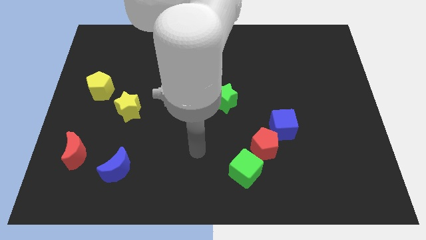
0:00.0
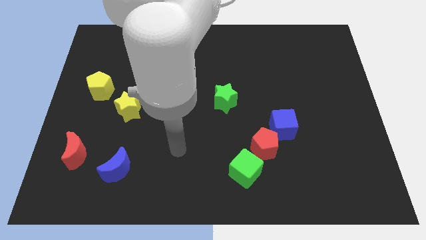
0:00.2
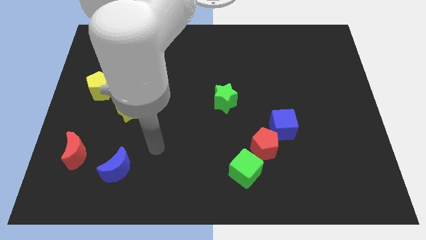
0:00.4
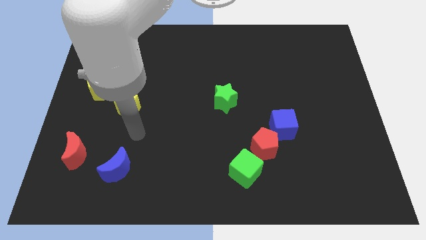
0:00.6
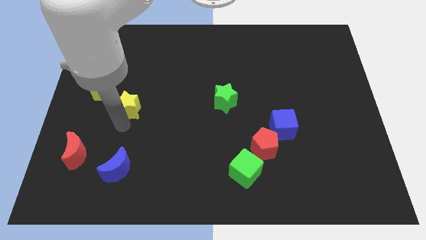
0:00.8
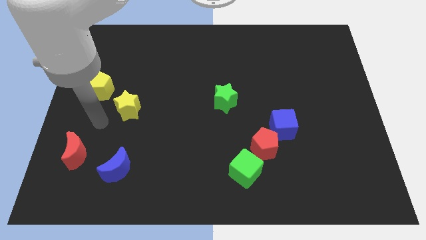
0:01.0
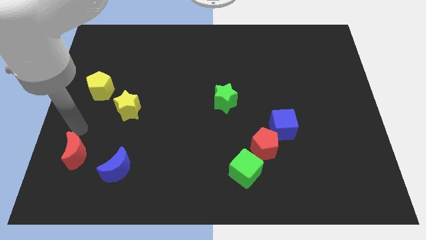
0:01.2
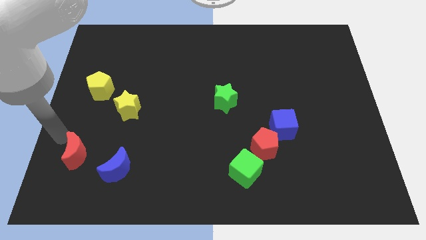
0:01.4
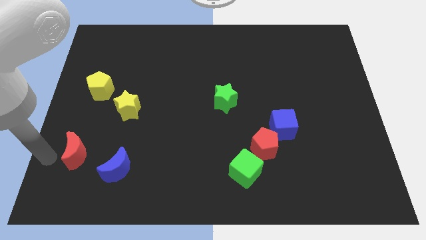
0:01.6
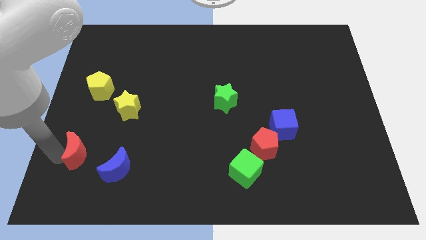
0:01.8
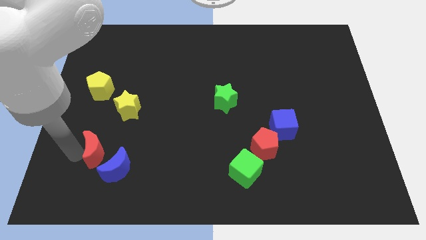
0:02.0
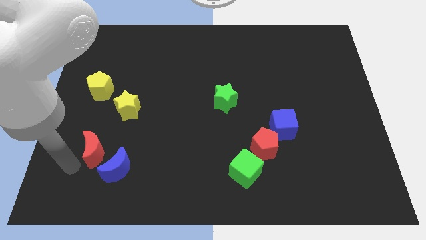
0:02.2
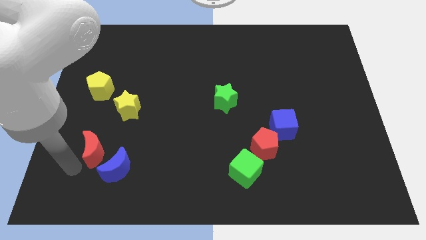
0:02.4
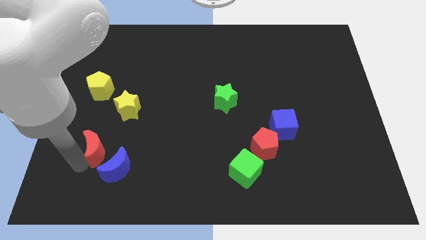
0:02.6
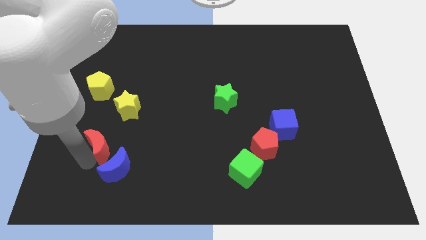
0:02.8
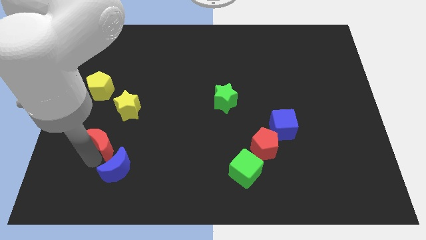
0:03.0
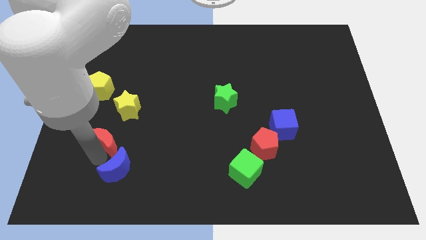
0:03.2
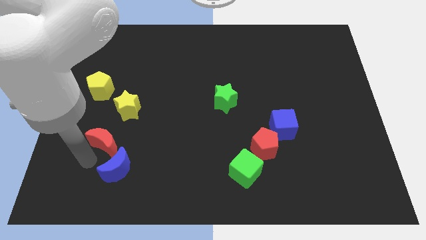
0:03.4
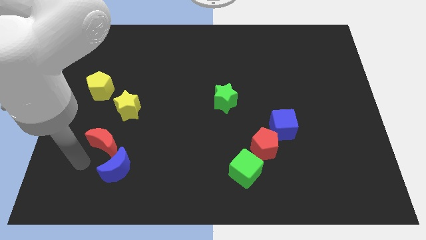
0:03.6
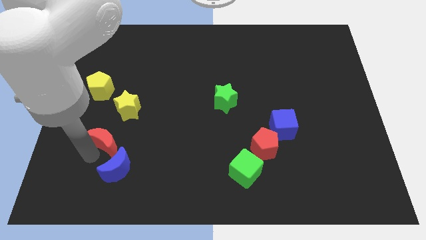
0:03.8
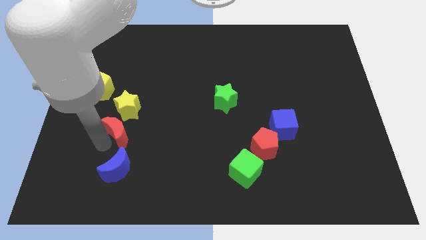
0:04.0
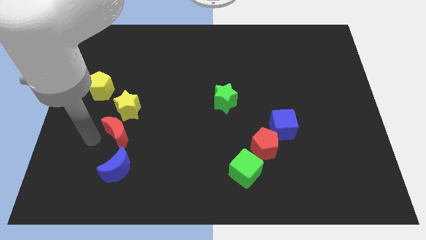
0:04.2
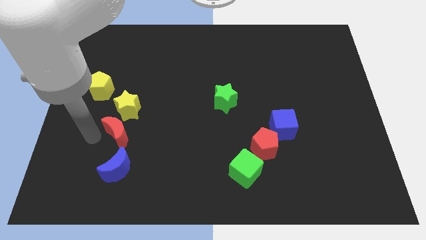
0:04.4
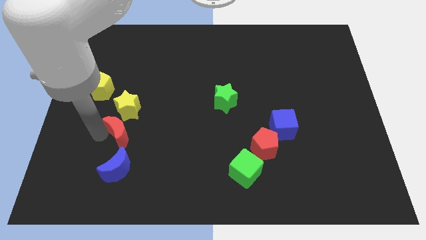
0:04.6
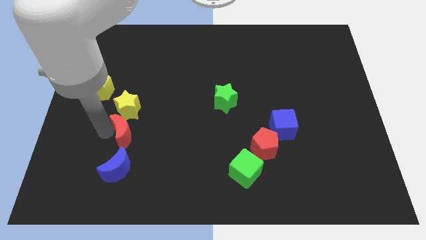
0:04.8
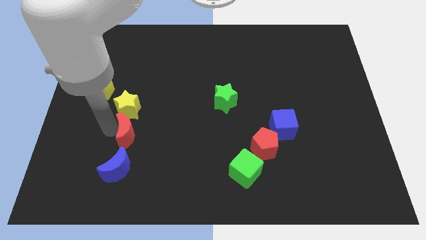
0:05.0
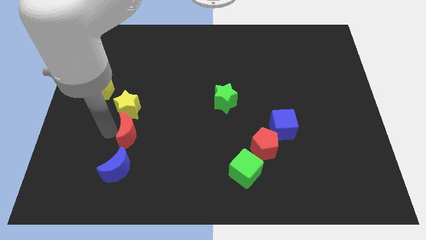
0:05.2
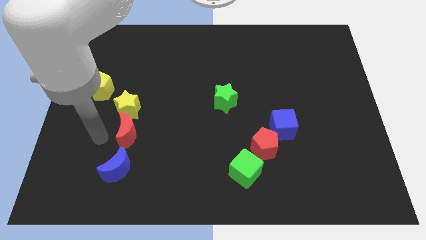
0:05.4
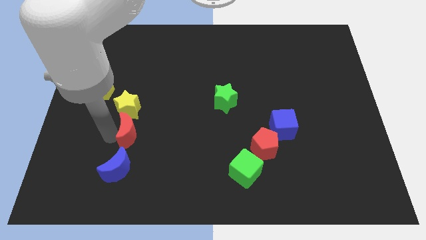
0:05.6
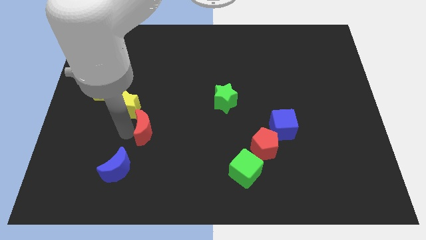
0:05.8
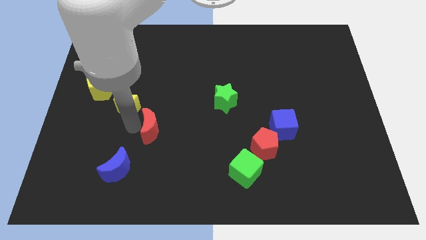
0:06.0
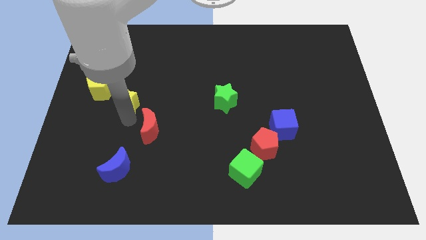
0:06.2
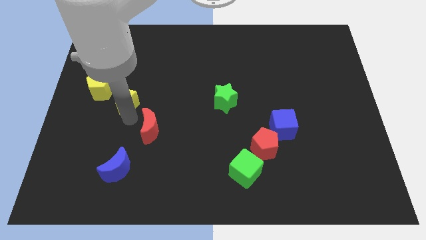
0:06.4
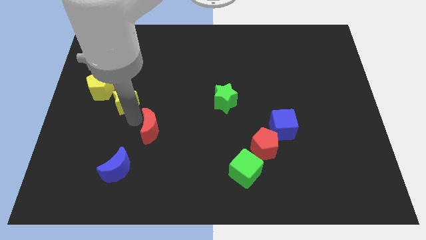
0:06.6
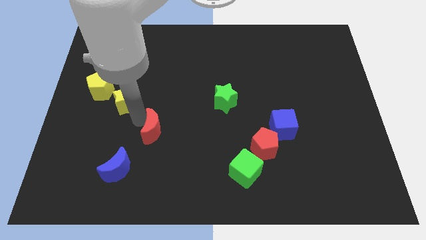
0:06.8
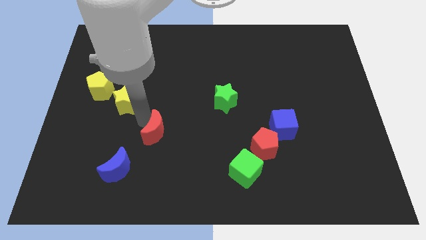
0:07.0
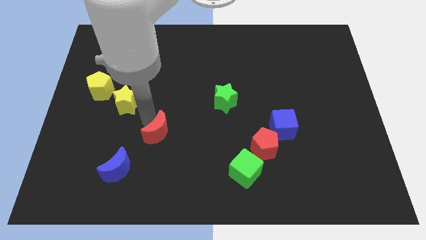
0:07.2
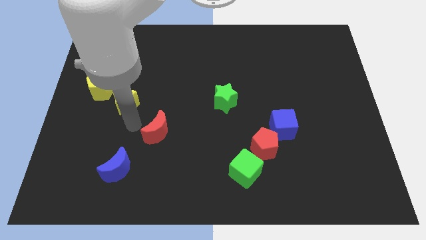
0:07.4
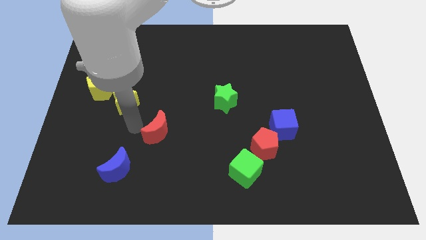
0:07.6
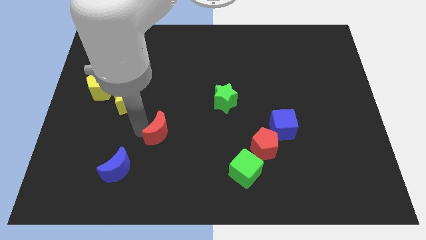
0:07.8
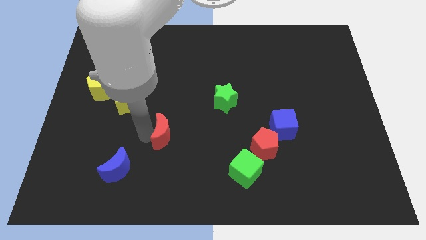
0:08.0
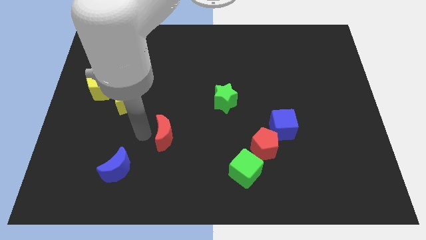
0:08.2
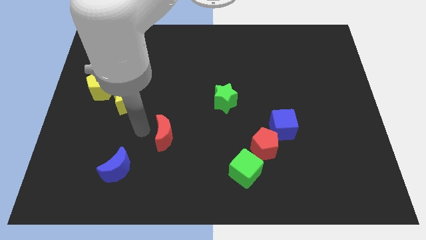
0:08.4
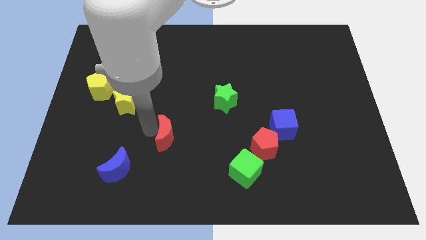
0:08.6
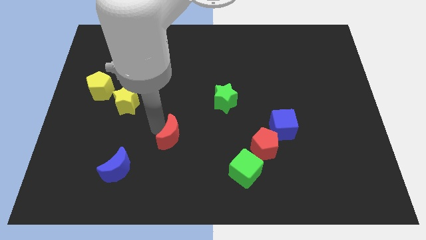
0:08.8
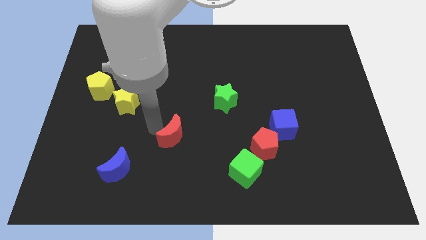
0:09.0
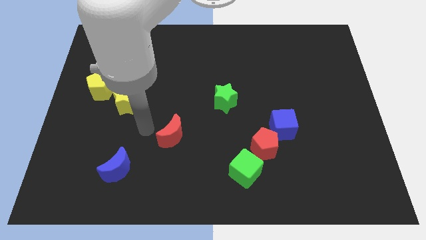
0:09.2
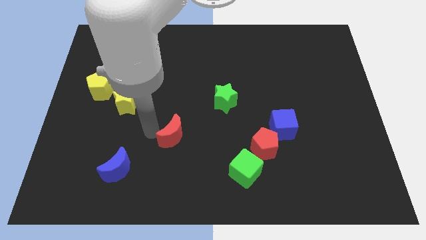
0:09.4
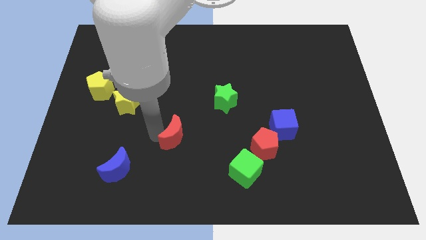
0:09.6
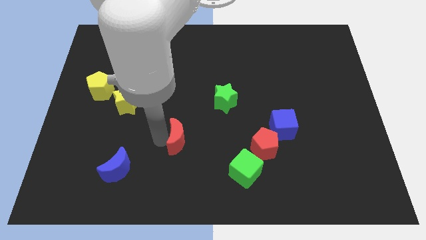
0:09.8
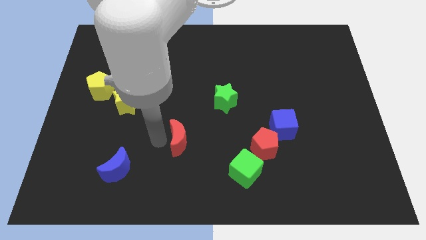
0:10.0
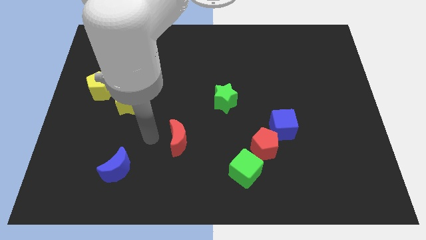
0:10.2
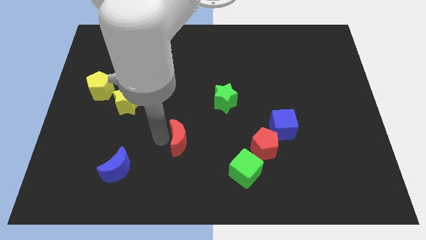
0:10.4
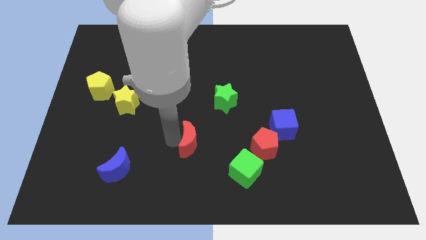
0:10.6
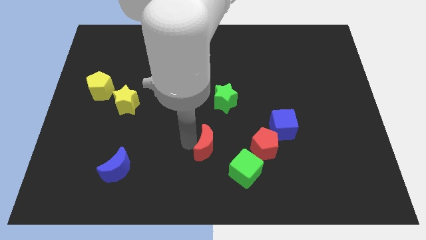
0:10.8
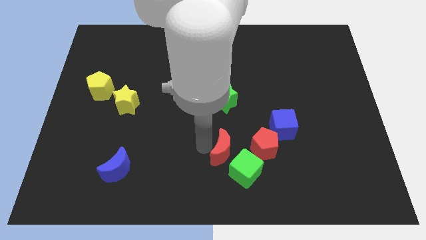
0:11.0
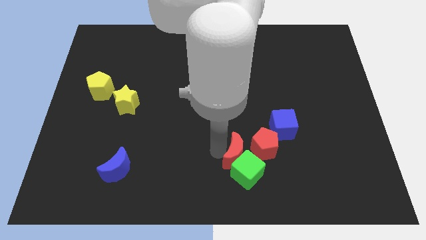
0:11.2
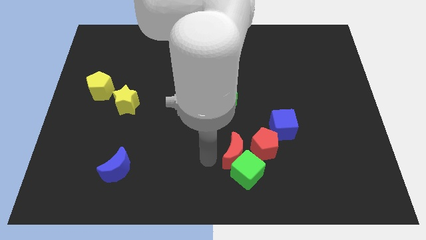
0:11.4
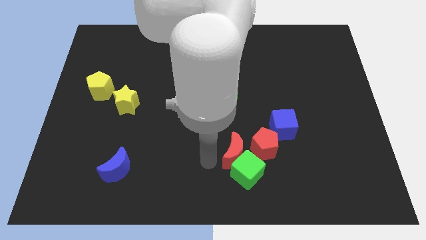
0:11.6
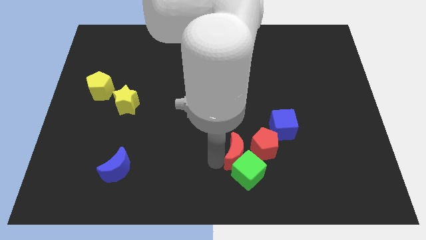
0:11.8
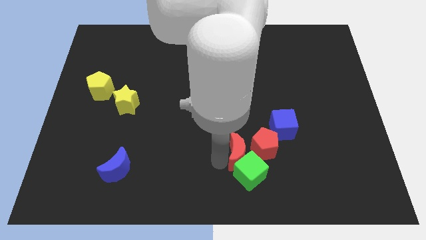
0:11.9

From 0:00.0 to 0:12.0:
put the red moon next to the red pentagon

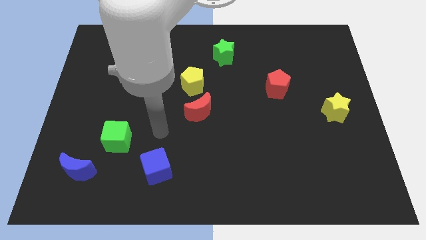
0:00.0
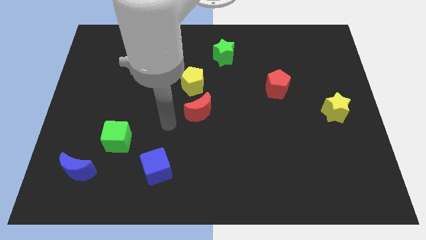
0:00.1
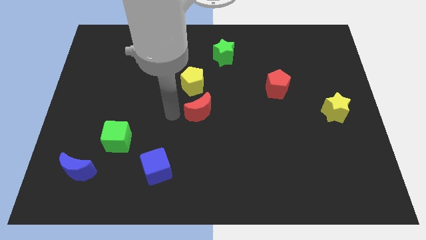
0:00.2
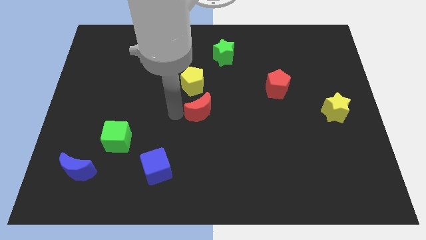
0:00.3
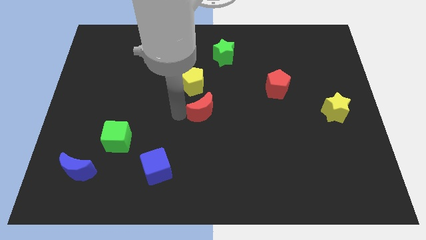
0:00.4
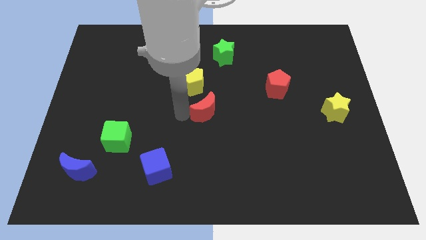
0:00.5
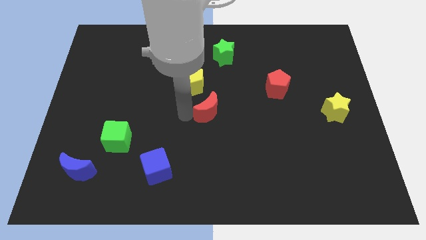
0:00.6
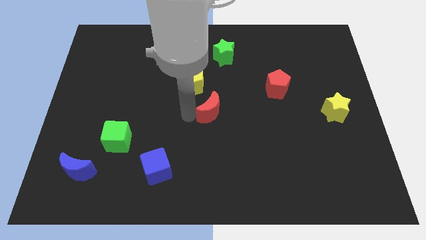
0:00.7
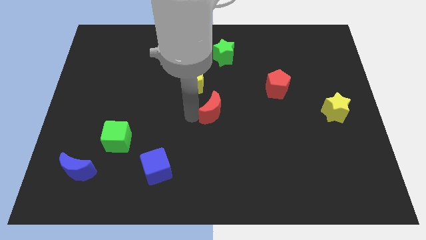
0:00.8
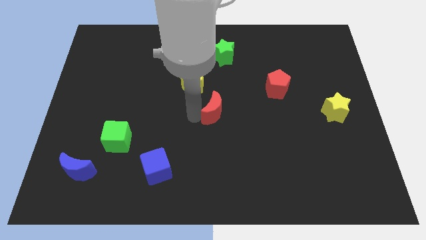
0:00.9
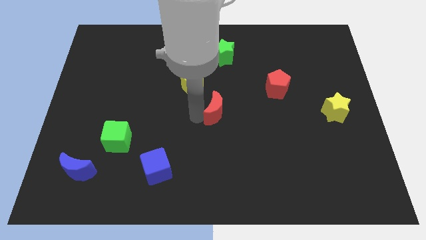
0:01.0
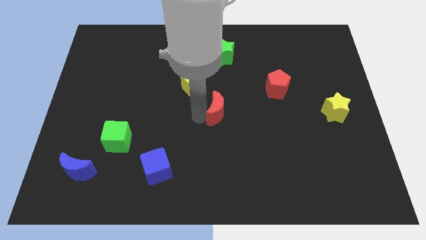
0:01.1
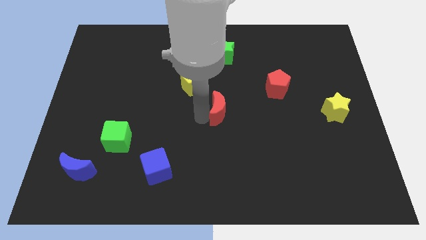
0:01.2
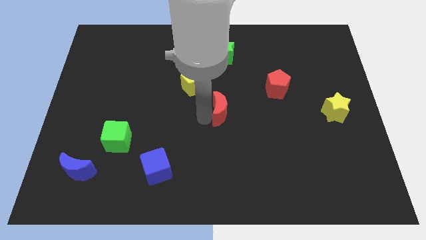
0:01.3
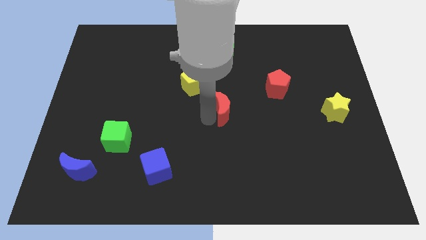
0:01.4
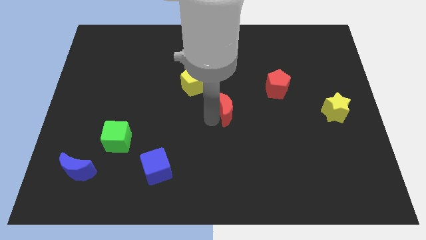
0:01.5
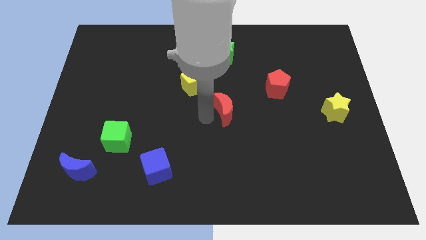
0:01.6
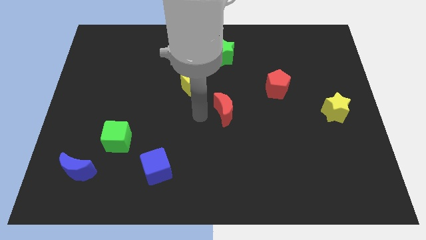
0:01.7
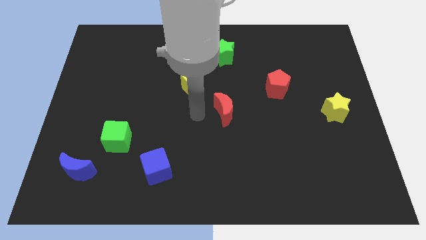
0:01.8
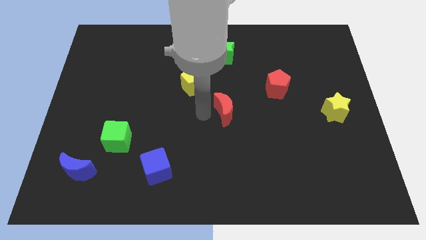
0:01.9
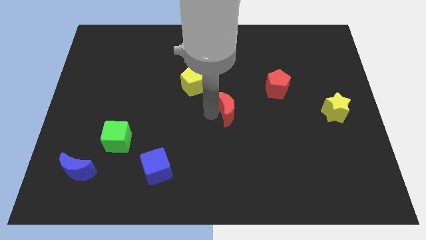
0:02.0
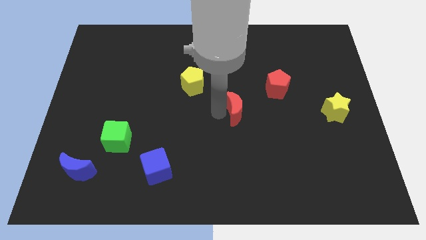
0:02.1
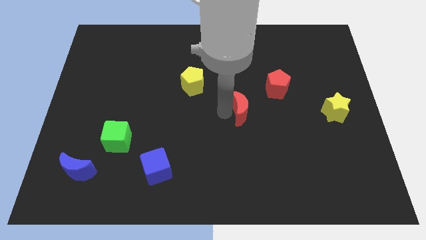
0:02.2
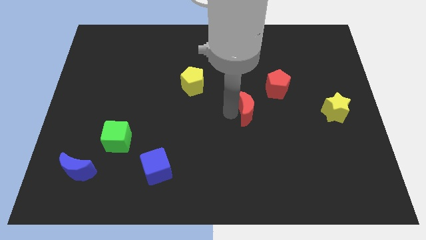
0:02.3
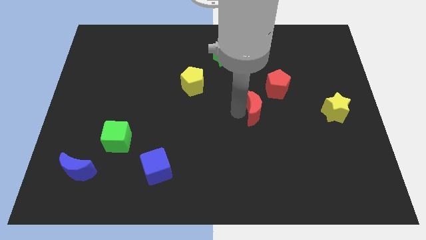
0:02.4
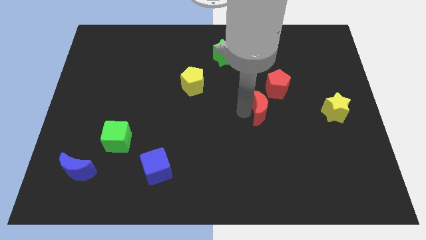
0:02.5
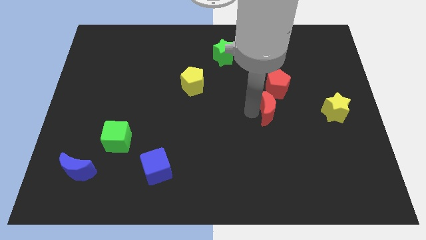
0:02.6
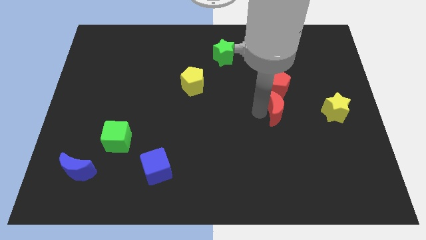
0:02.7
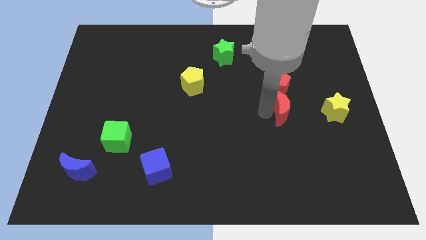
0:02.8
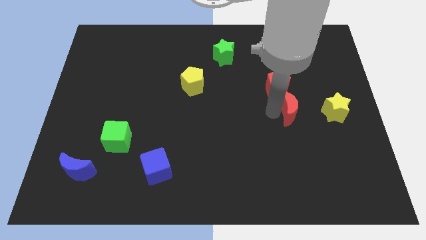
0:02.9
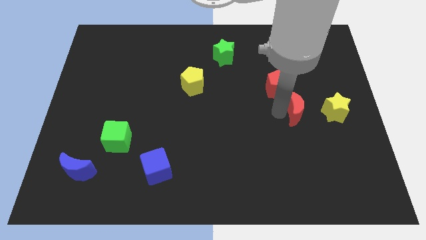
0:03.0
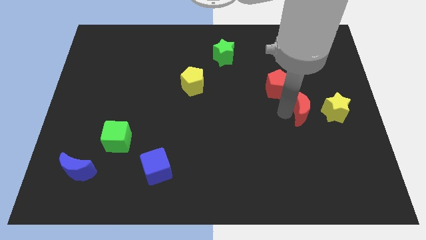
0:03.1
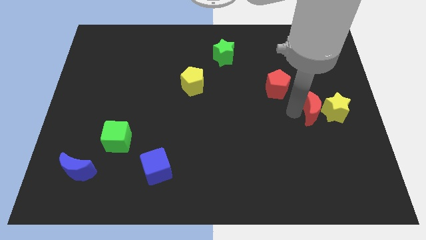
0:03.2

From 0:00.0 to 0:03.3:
push the red moon towards the yellow star
